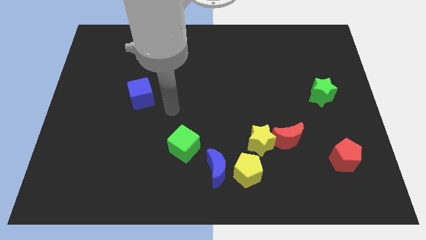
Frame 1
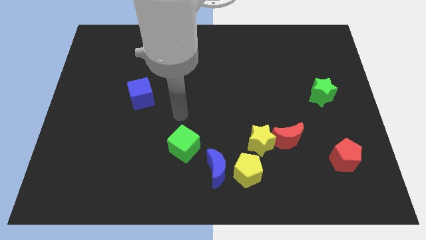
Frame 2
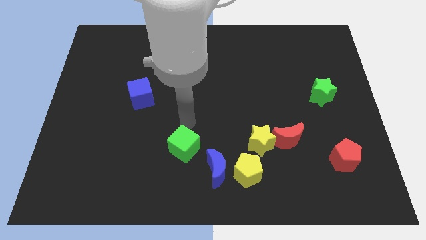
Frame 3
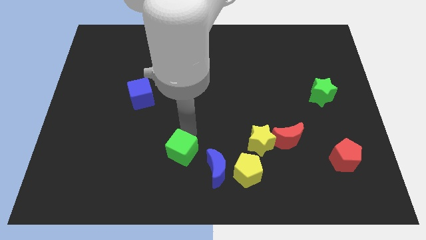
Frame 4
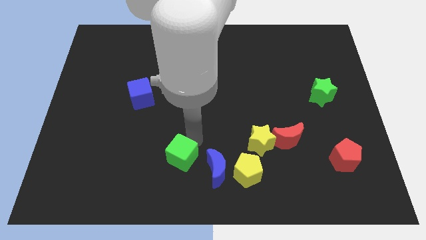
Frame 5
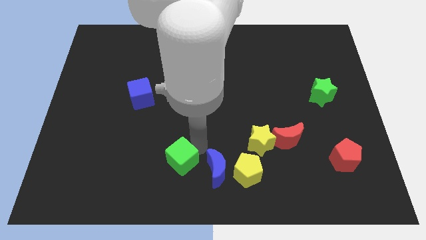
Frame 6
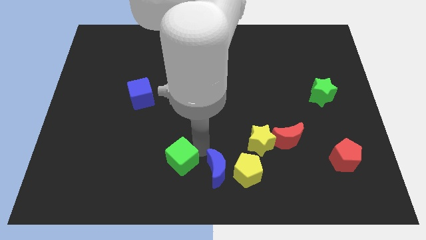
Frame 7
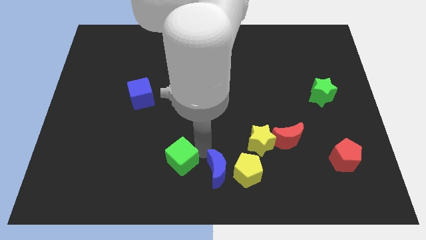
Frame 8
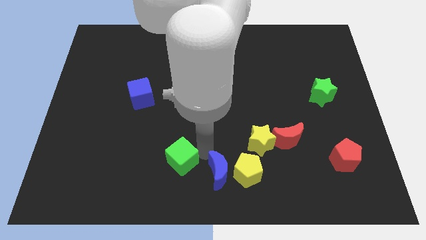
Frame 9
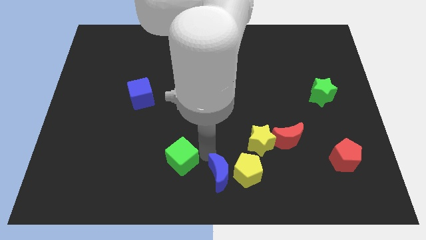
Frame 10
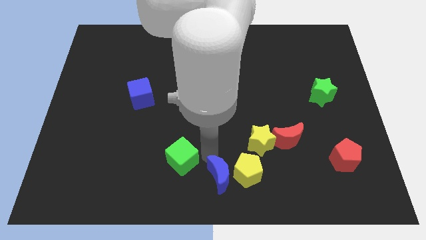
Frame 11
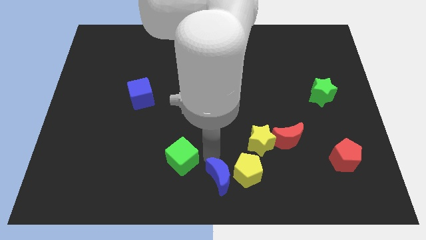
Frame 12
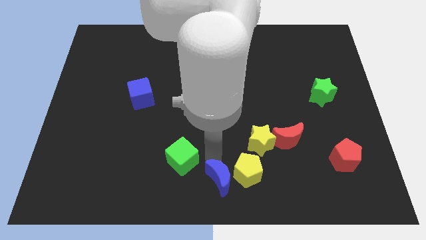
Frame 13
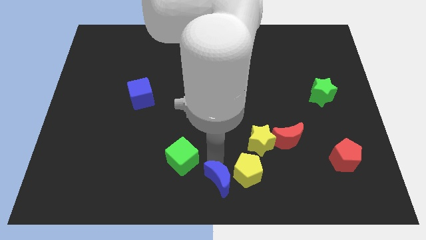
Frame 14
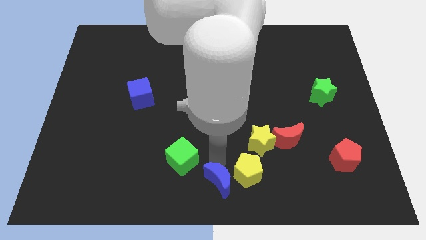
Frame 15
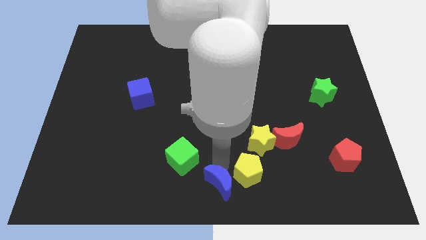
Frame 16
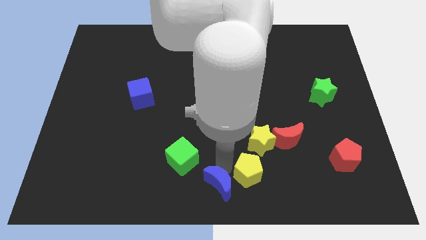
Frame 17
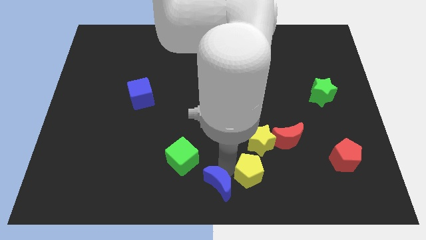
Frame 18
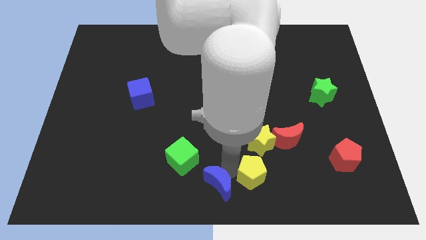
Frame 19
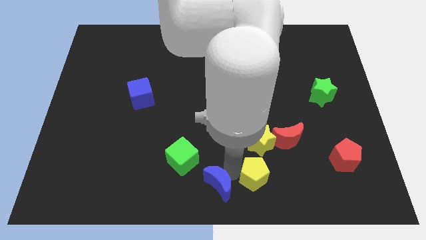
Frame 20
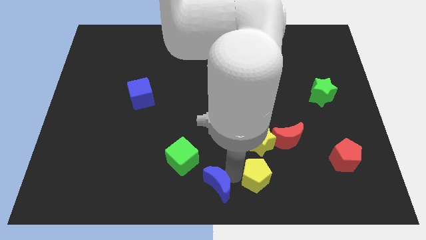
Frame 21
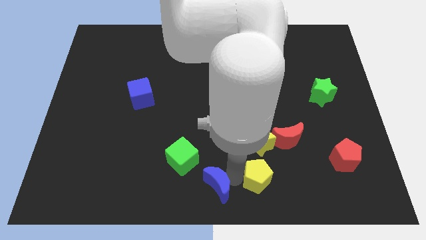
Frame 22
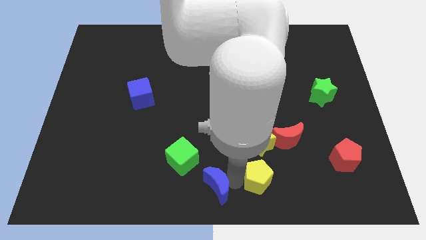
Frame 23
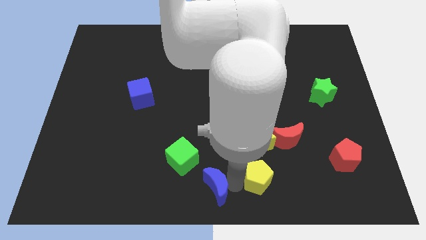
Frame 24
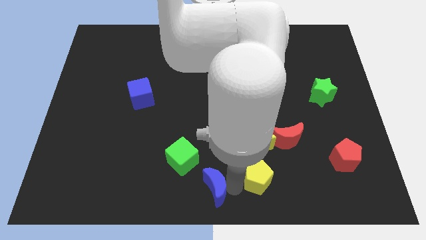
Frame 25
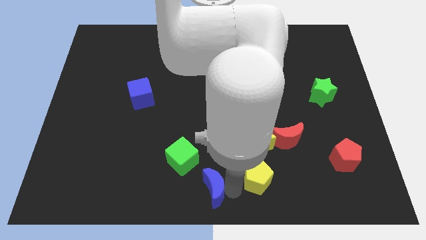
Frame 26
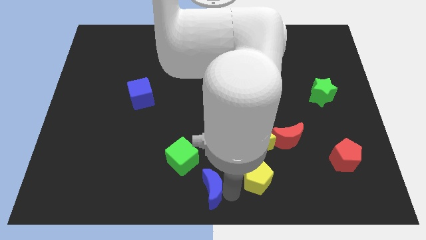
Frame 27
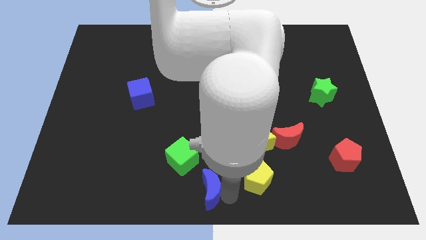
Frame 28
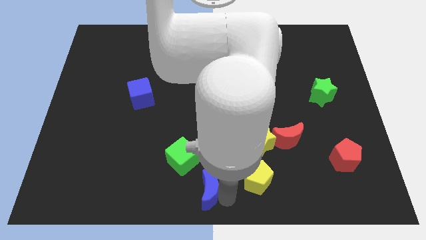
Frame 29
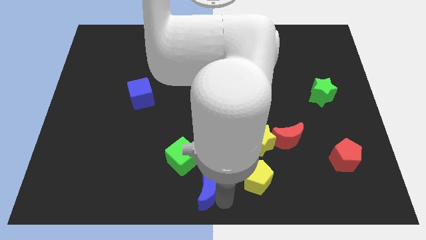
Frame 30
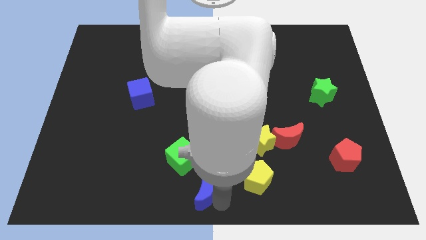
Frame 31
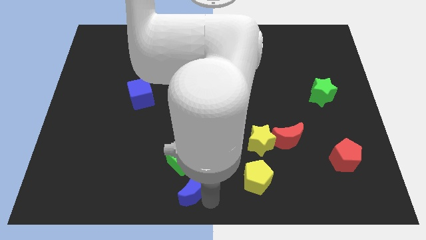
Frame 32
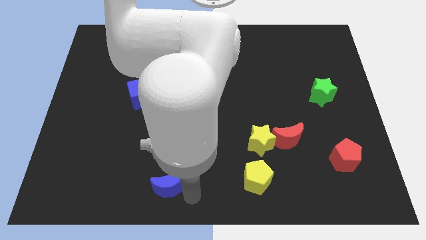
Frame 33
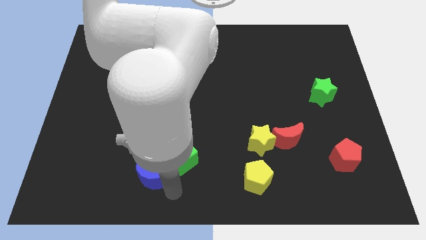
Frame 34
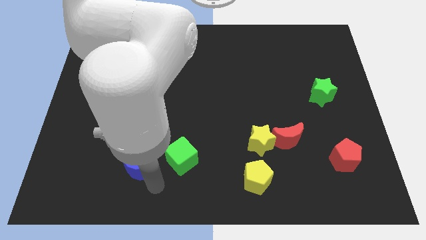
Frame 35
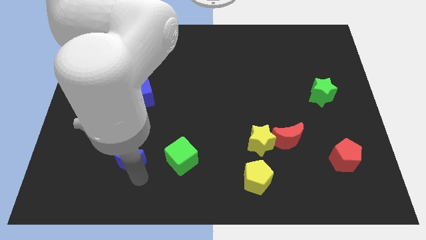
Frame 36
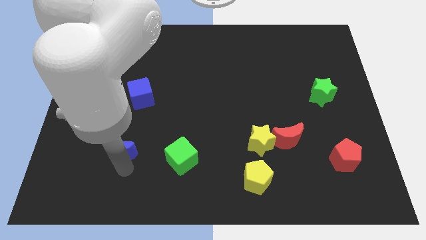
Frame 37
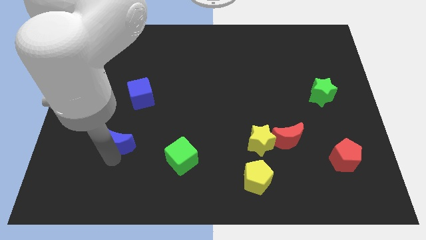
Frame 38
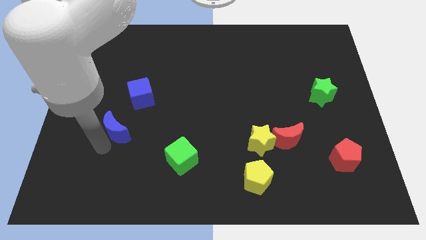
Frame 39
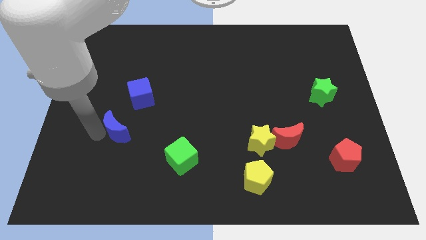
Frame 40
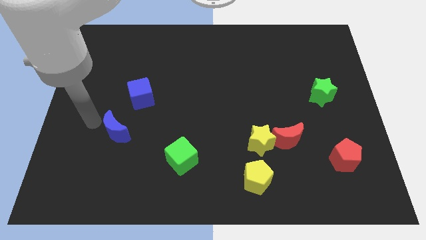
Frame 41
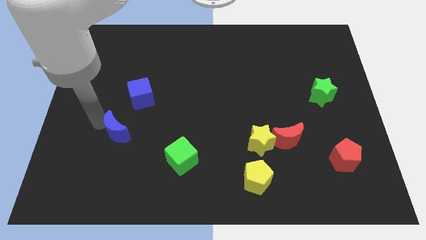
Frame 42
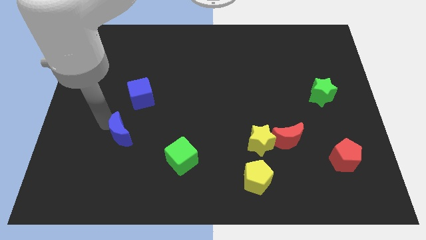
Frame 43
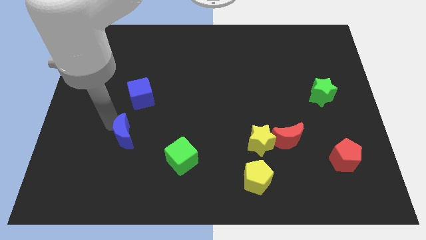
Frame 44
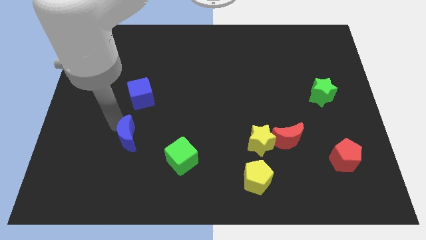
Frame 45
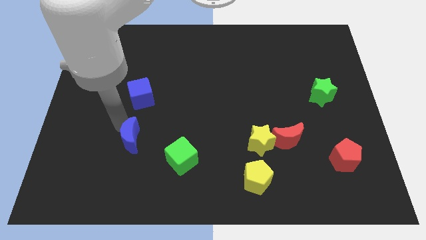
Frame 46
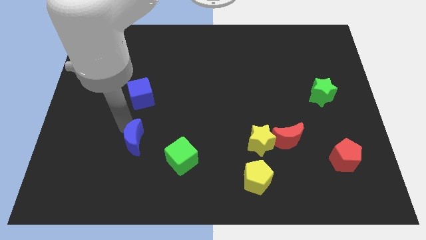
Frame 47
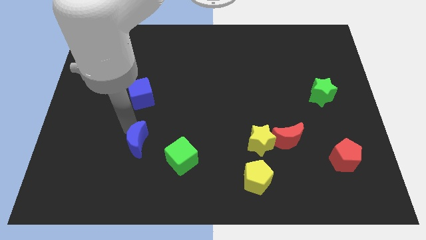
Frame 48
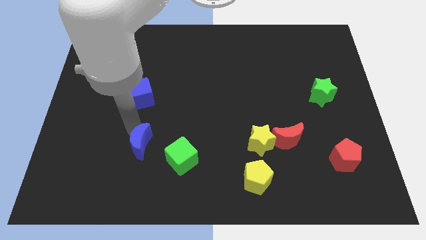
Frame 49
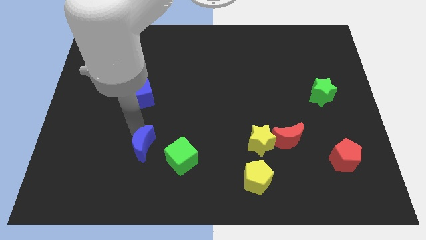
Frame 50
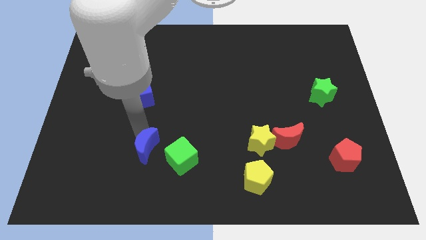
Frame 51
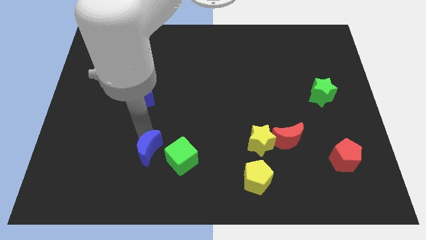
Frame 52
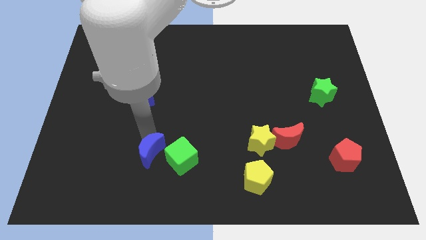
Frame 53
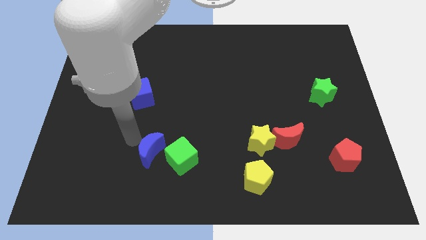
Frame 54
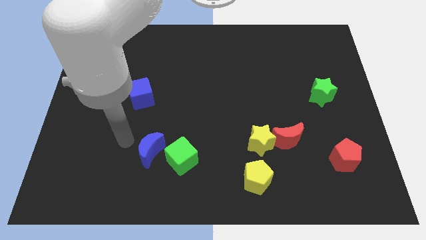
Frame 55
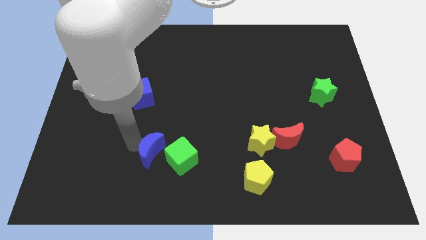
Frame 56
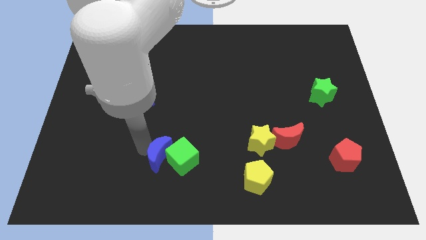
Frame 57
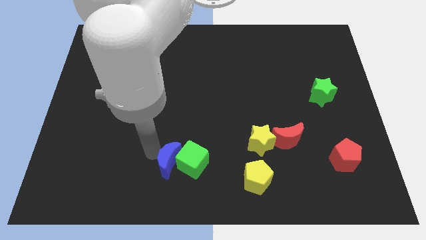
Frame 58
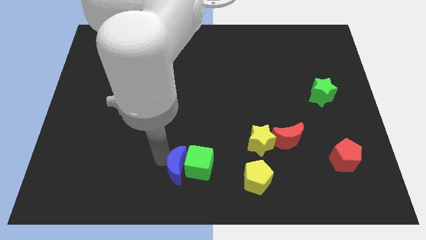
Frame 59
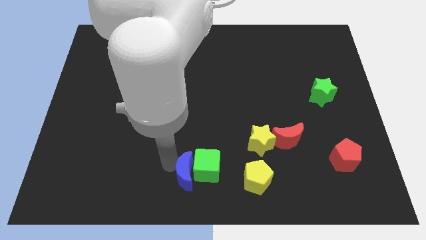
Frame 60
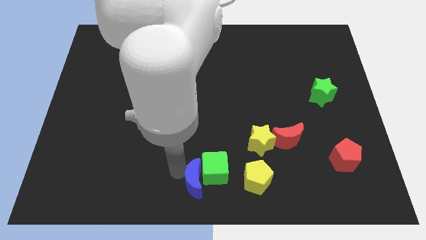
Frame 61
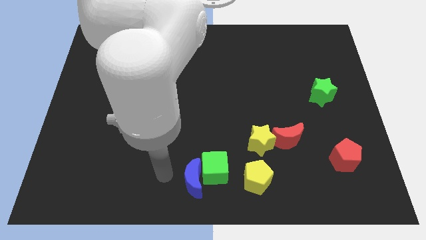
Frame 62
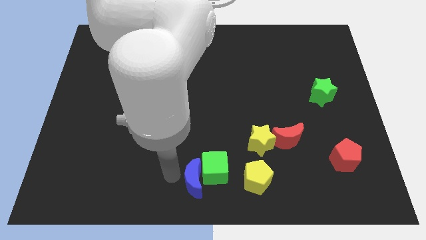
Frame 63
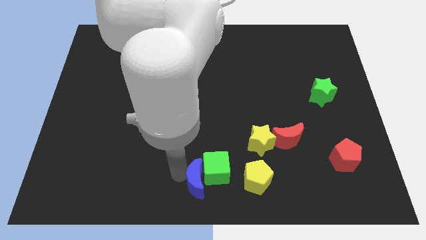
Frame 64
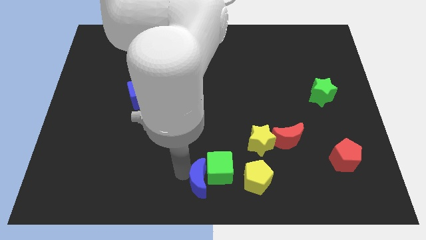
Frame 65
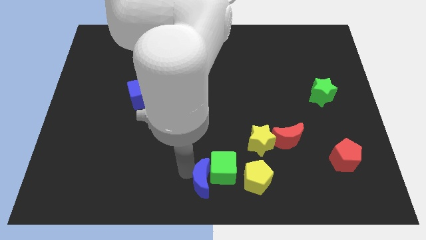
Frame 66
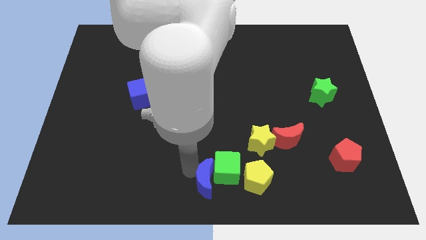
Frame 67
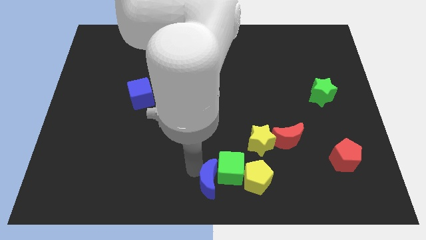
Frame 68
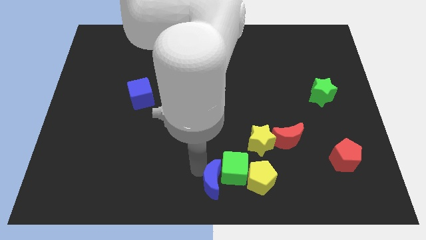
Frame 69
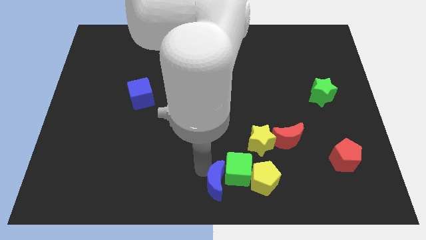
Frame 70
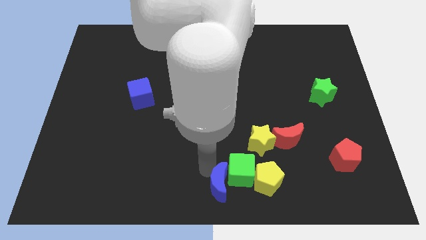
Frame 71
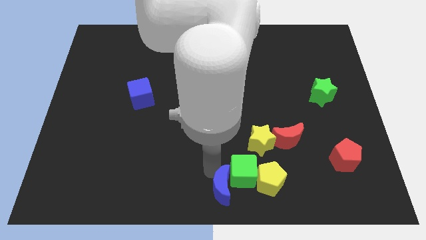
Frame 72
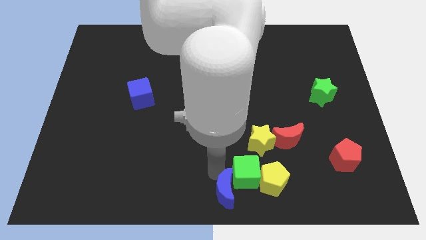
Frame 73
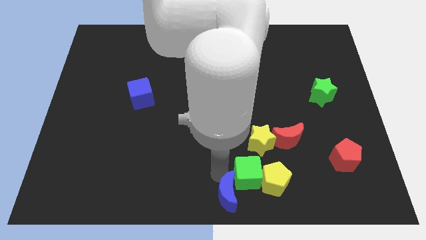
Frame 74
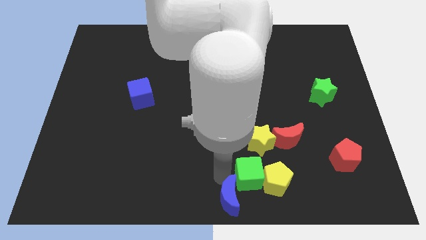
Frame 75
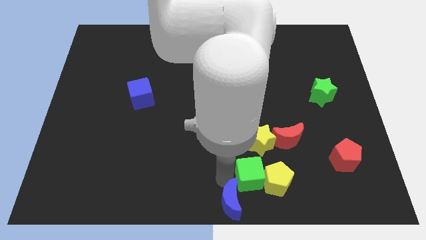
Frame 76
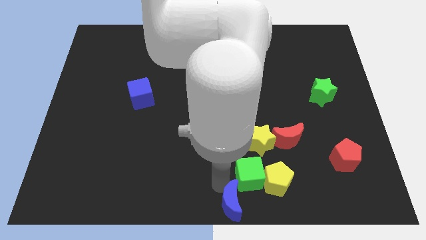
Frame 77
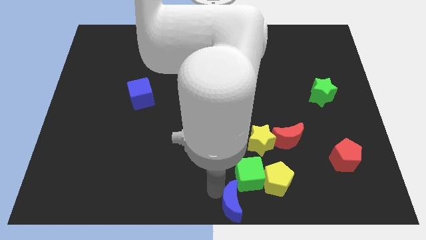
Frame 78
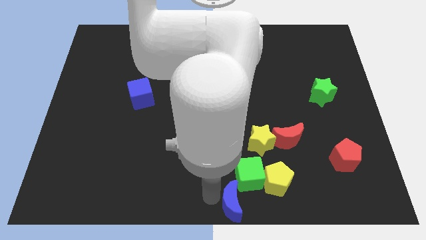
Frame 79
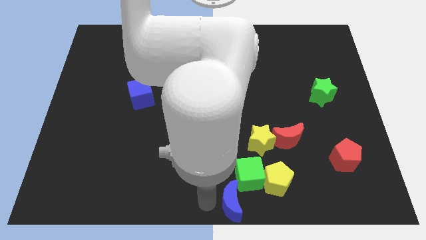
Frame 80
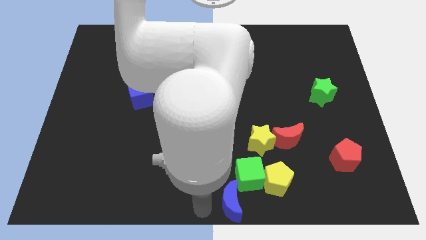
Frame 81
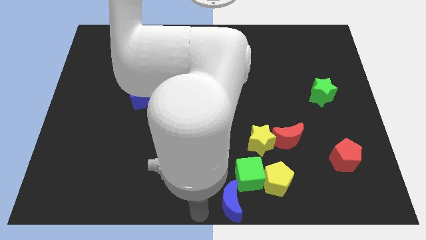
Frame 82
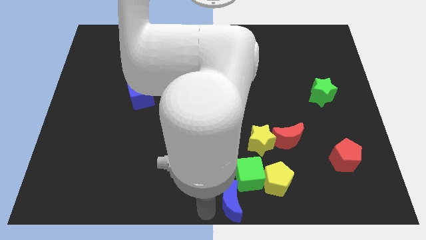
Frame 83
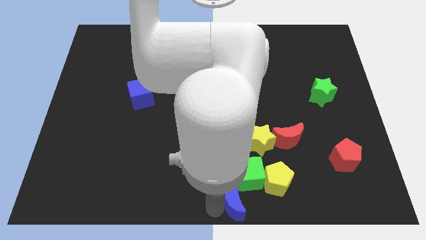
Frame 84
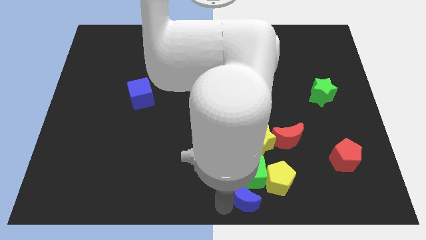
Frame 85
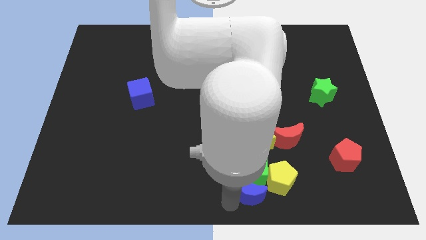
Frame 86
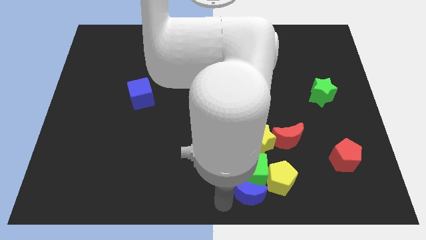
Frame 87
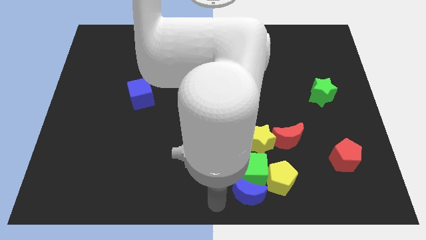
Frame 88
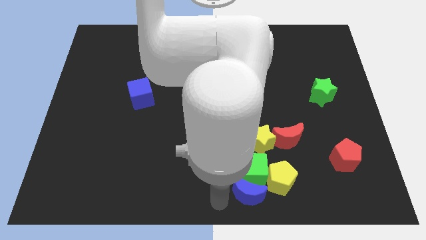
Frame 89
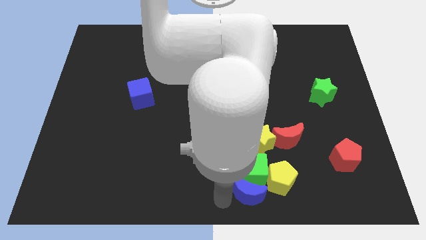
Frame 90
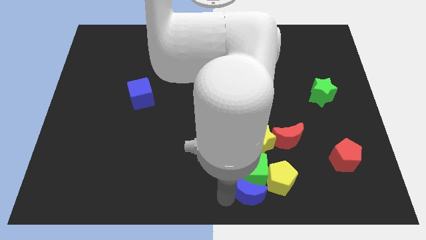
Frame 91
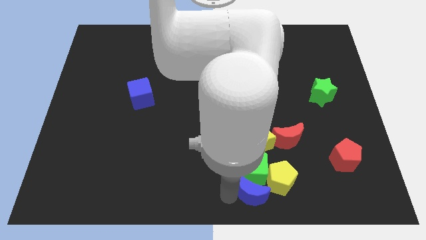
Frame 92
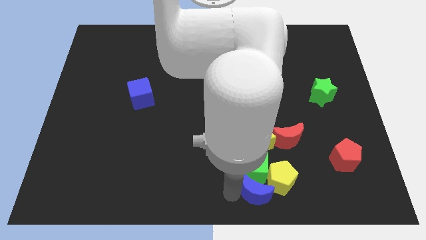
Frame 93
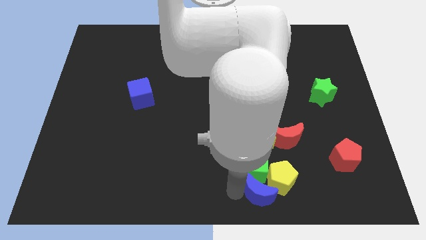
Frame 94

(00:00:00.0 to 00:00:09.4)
push the blue moon to the right a bit
